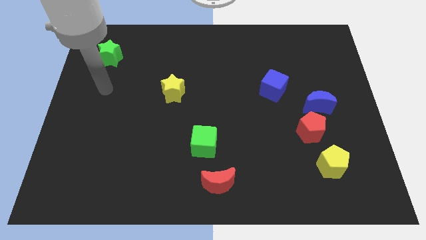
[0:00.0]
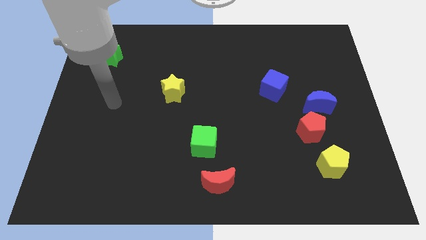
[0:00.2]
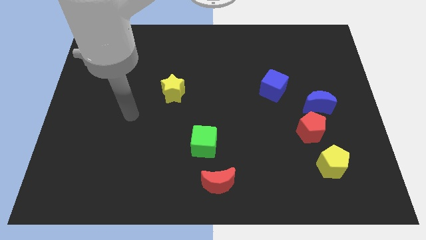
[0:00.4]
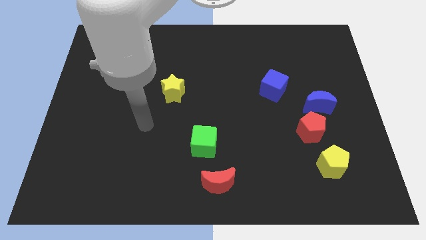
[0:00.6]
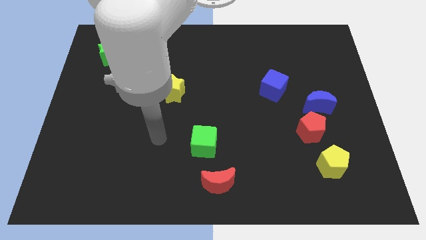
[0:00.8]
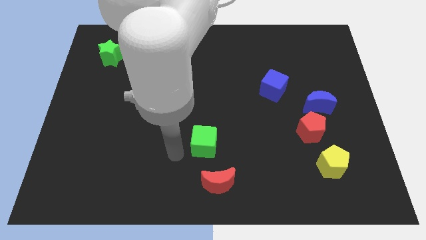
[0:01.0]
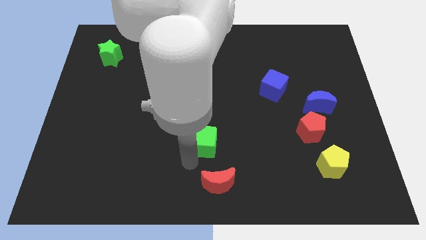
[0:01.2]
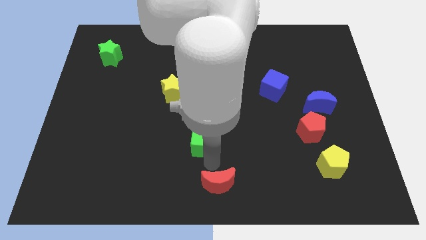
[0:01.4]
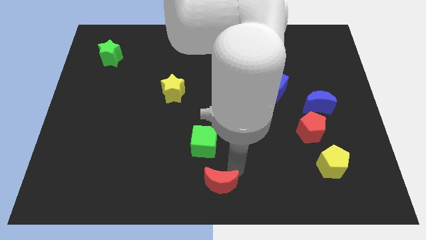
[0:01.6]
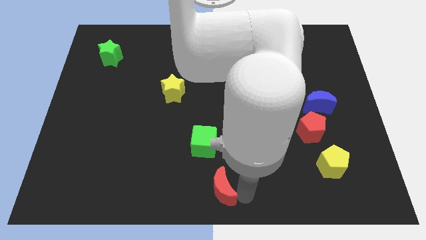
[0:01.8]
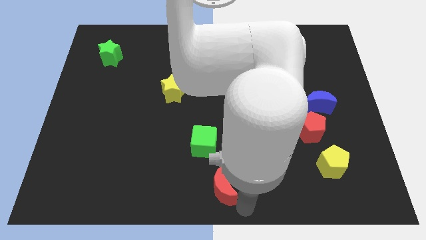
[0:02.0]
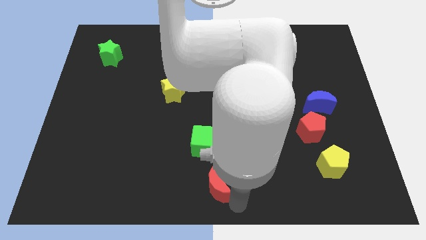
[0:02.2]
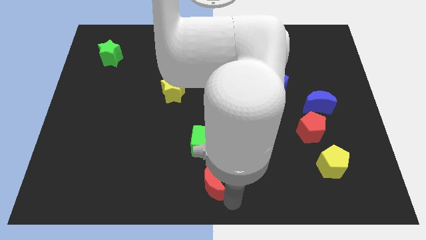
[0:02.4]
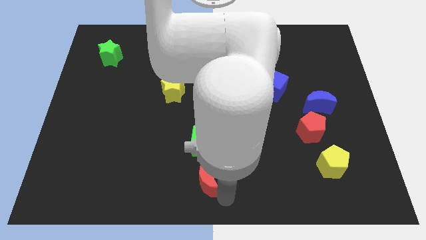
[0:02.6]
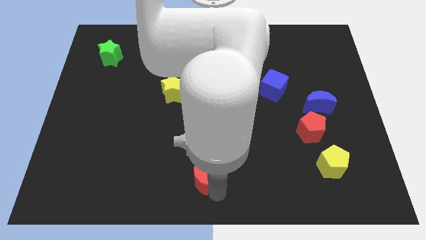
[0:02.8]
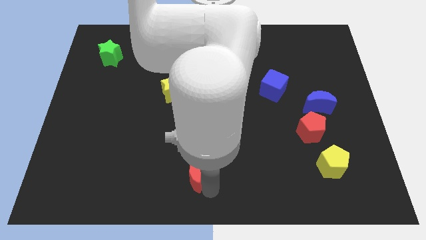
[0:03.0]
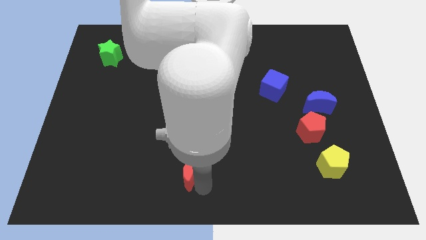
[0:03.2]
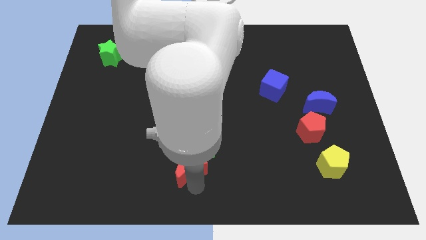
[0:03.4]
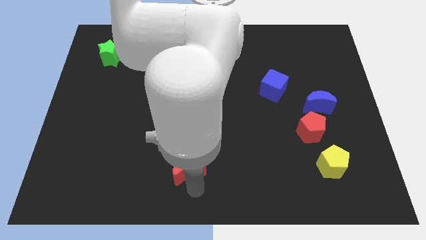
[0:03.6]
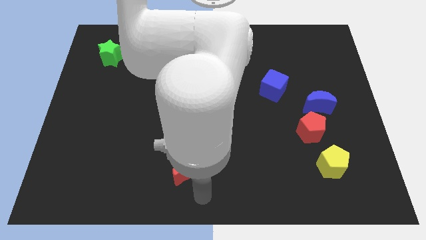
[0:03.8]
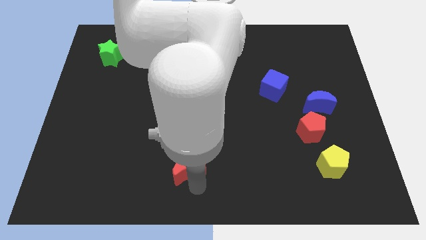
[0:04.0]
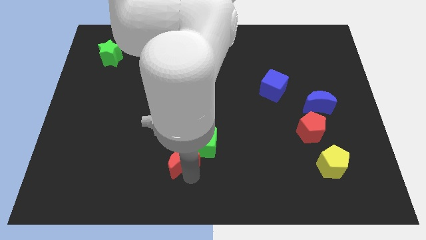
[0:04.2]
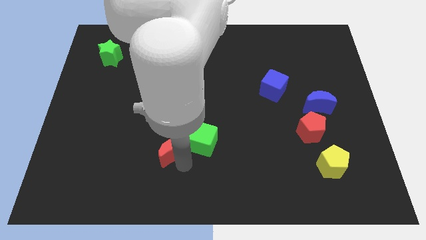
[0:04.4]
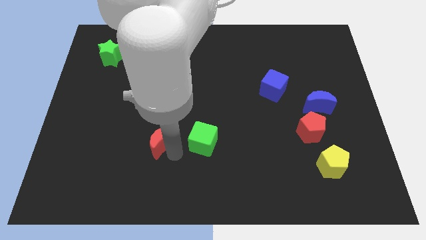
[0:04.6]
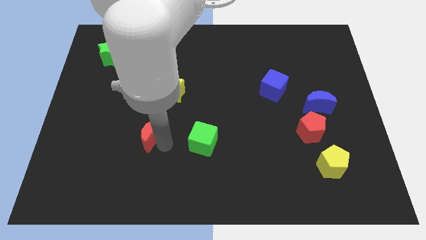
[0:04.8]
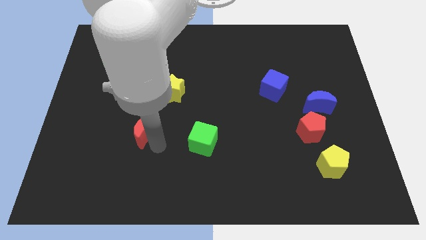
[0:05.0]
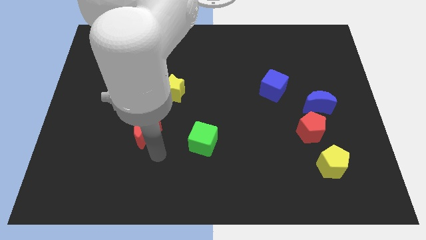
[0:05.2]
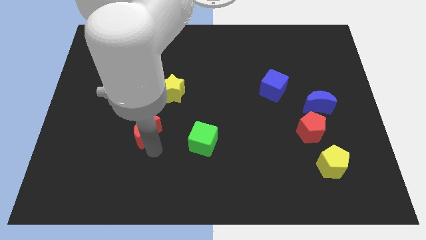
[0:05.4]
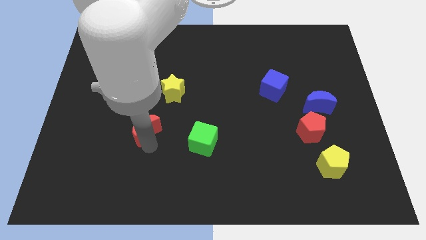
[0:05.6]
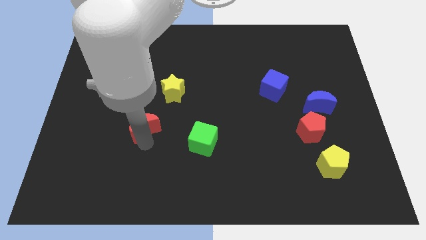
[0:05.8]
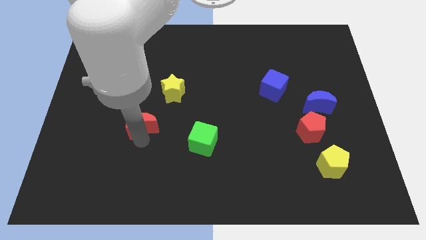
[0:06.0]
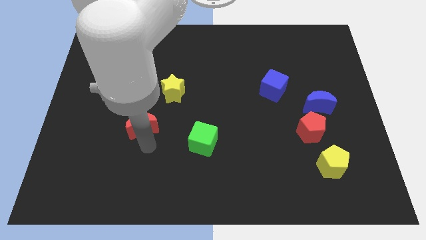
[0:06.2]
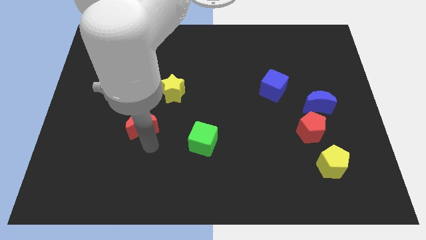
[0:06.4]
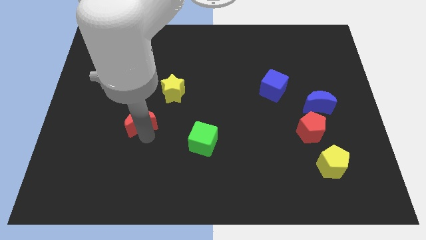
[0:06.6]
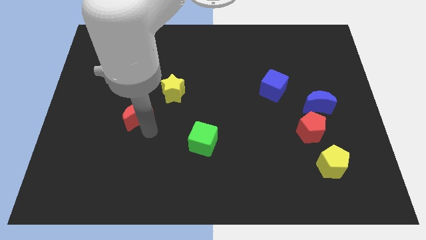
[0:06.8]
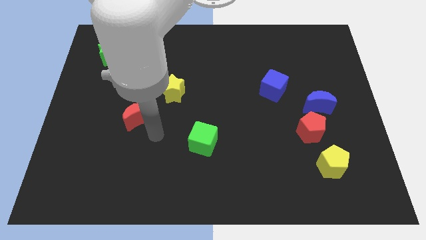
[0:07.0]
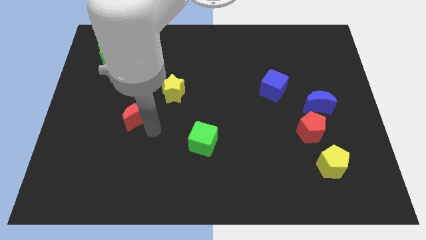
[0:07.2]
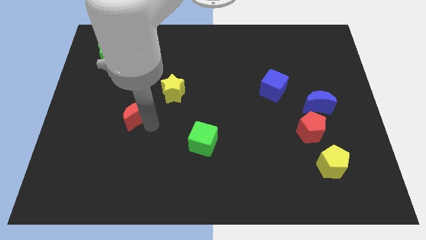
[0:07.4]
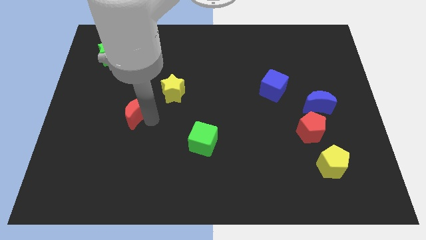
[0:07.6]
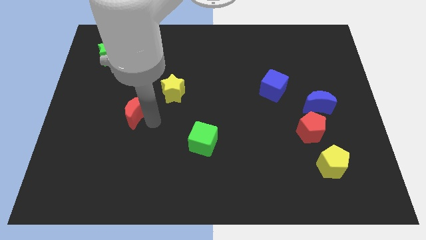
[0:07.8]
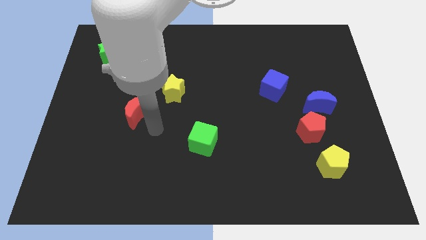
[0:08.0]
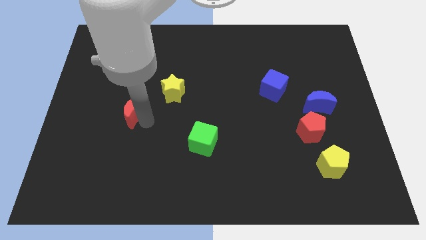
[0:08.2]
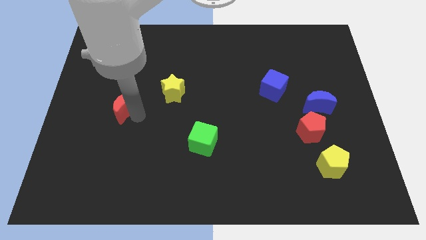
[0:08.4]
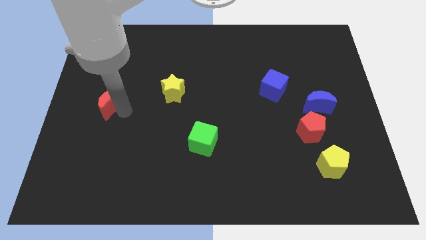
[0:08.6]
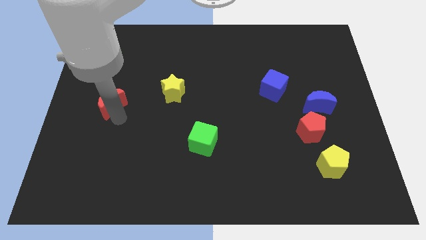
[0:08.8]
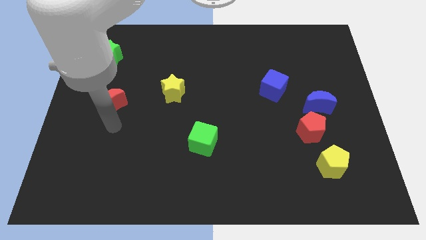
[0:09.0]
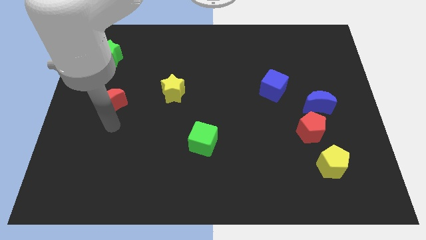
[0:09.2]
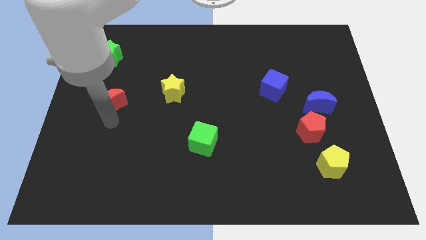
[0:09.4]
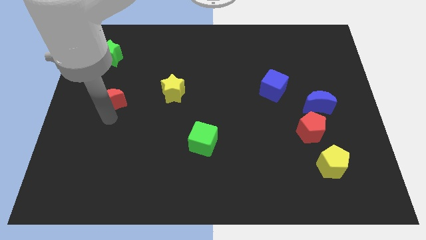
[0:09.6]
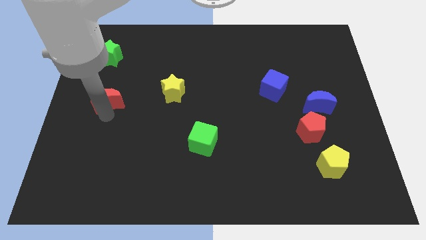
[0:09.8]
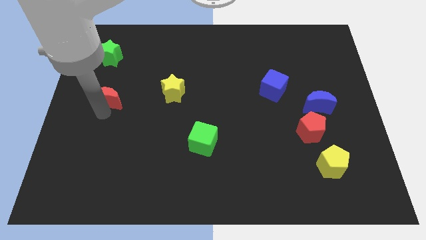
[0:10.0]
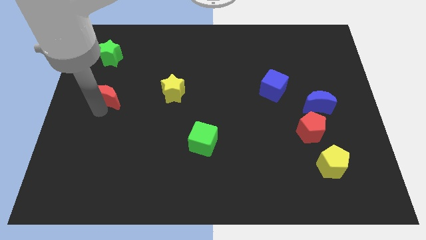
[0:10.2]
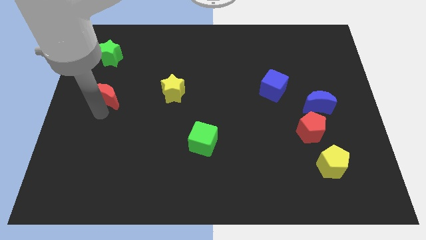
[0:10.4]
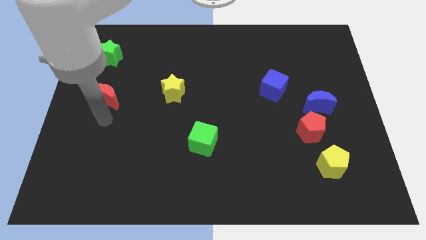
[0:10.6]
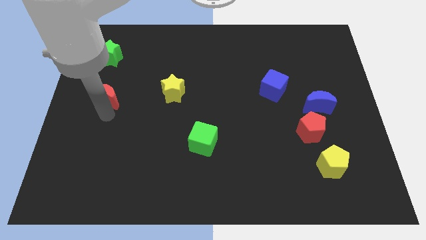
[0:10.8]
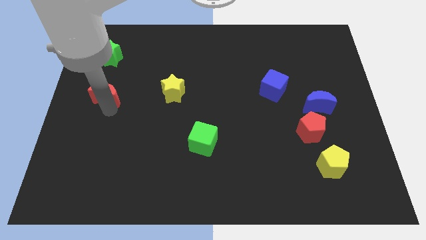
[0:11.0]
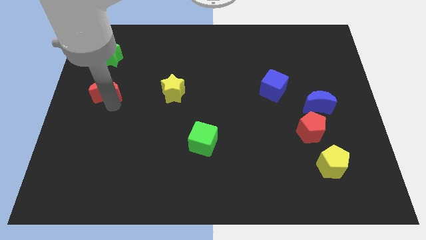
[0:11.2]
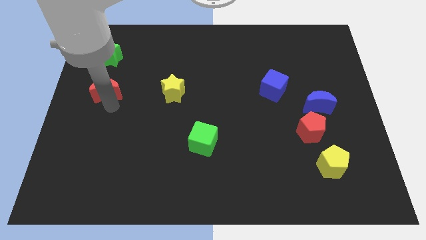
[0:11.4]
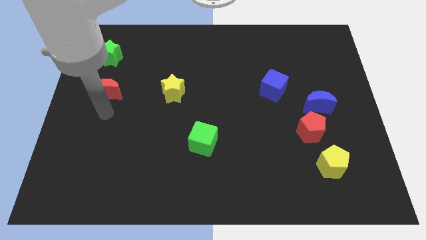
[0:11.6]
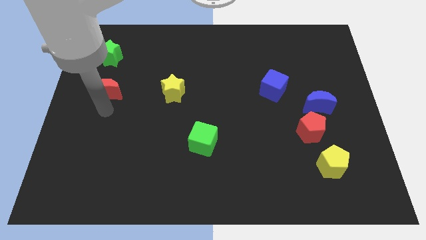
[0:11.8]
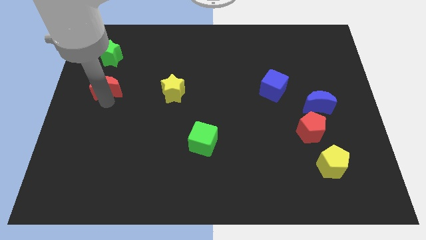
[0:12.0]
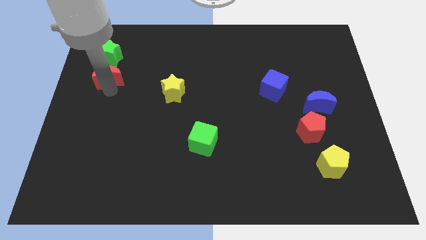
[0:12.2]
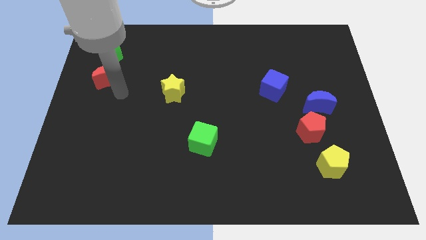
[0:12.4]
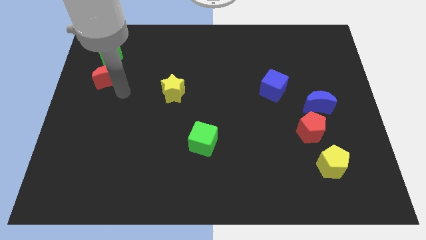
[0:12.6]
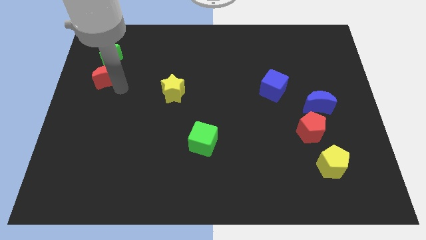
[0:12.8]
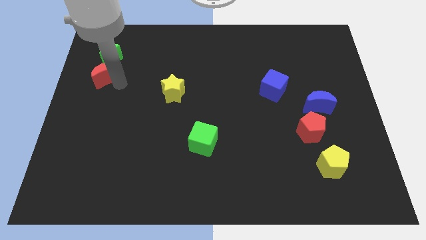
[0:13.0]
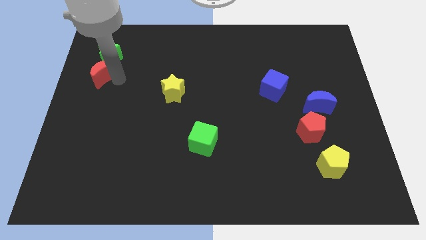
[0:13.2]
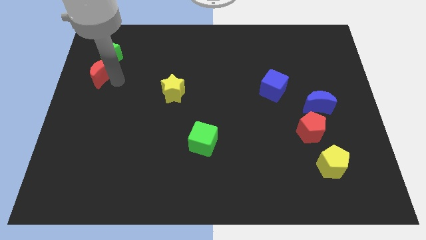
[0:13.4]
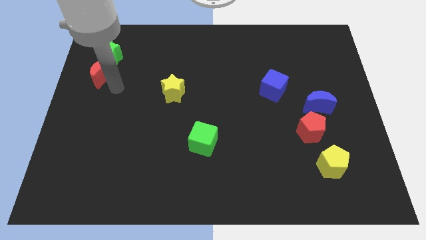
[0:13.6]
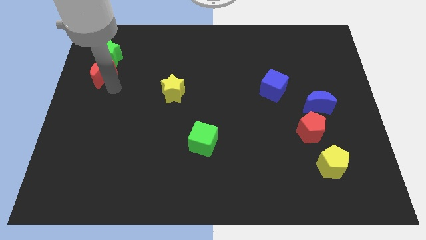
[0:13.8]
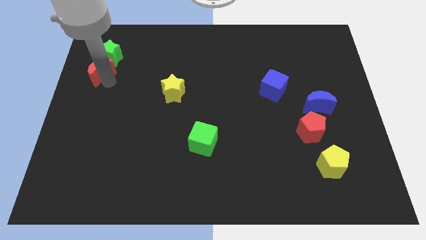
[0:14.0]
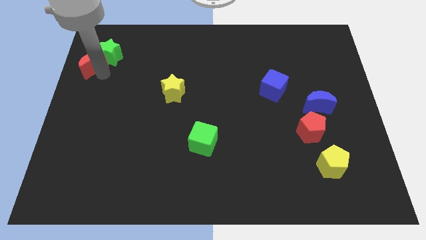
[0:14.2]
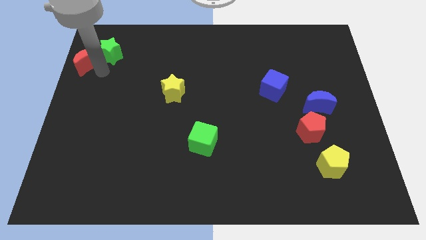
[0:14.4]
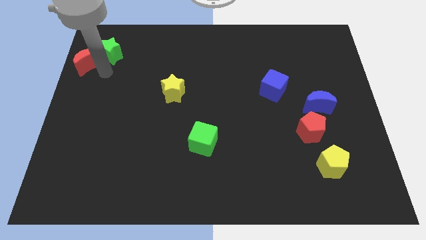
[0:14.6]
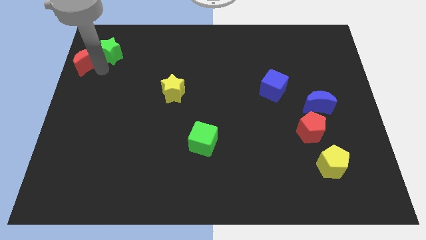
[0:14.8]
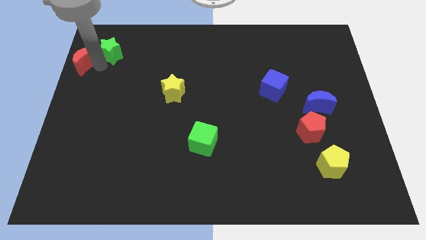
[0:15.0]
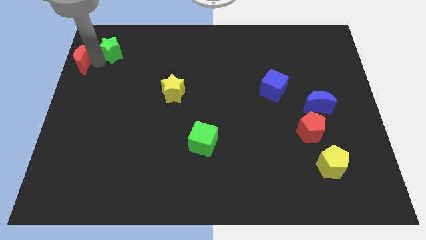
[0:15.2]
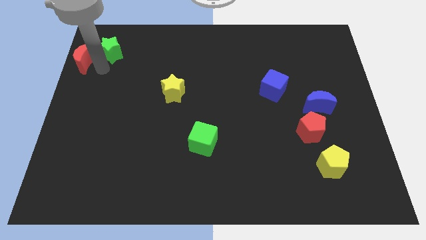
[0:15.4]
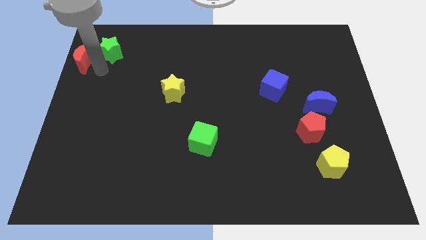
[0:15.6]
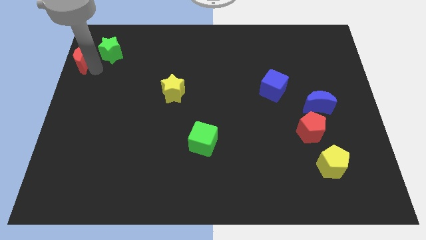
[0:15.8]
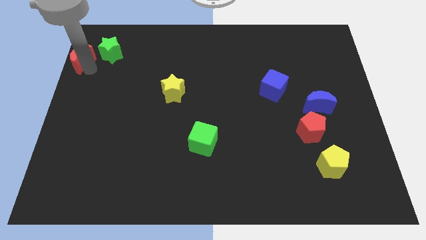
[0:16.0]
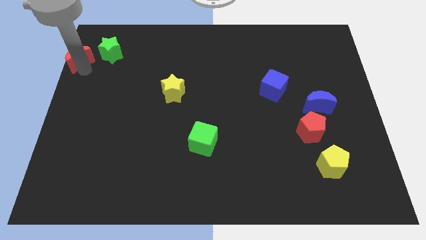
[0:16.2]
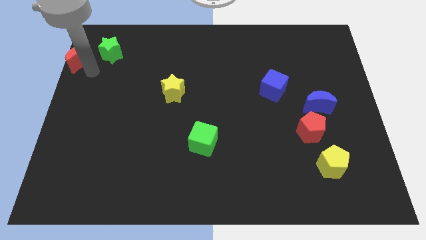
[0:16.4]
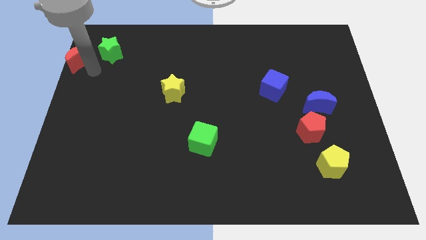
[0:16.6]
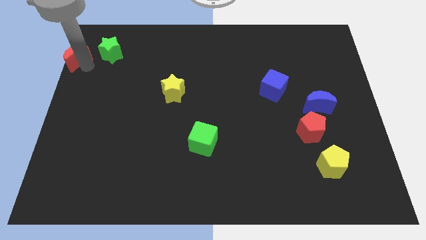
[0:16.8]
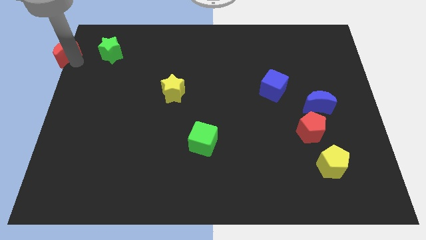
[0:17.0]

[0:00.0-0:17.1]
put the red moon to the upper left corner
